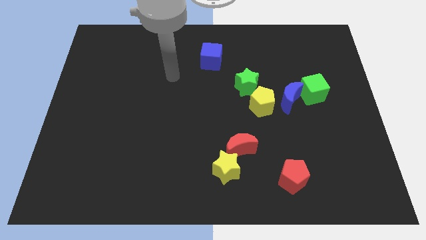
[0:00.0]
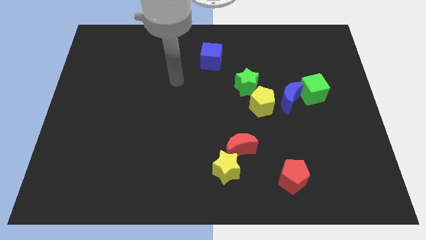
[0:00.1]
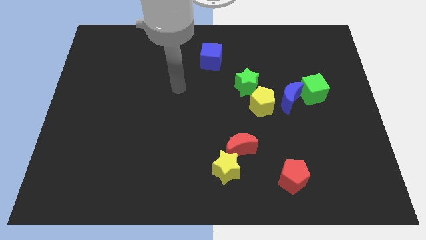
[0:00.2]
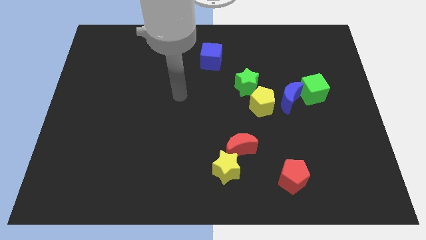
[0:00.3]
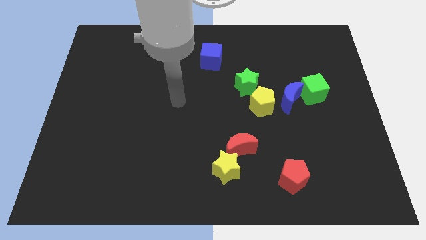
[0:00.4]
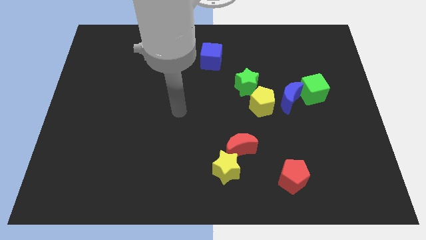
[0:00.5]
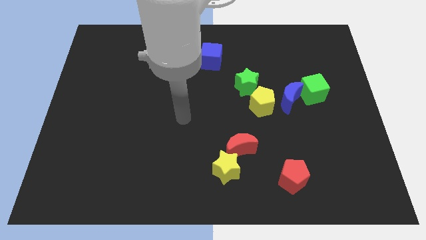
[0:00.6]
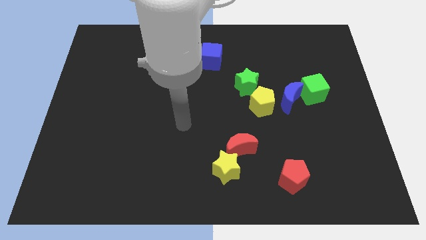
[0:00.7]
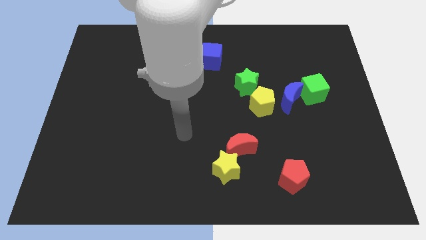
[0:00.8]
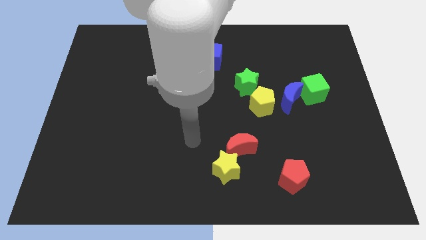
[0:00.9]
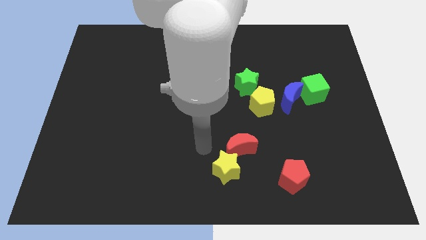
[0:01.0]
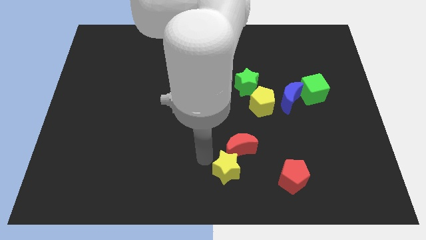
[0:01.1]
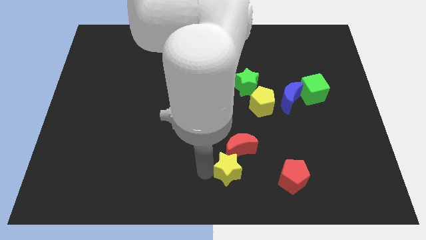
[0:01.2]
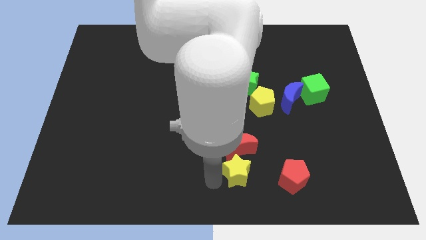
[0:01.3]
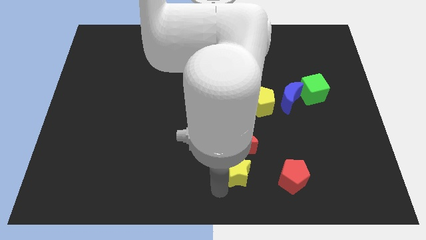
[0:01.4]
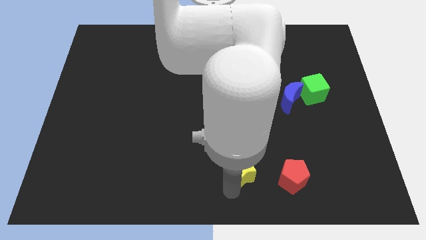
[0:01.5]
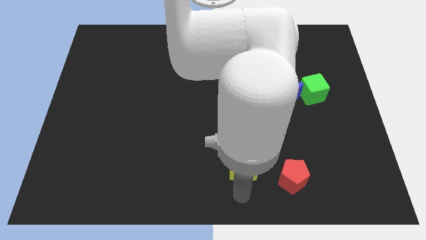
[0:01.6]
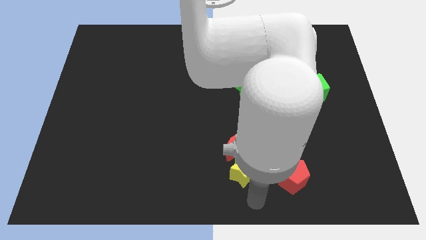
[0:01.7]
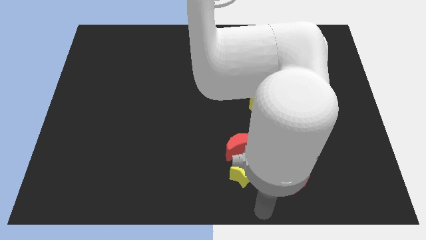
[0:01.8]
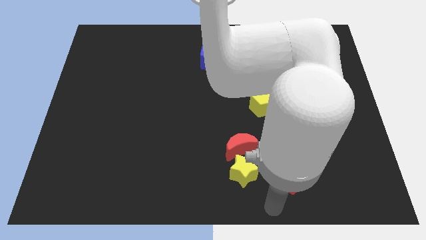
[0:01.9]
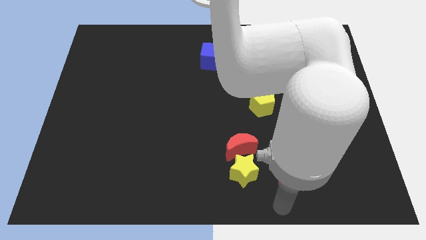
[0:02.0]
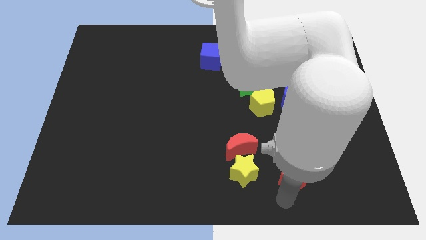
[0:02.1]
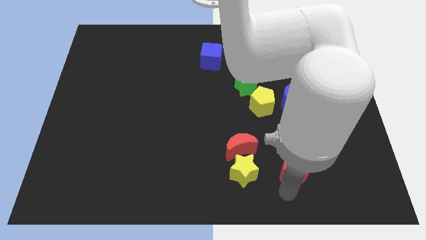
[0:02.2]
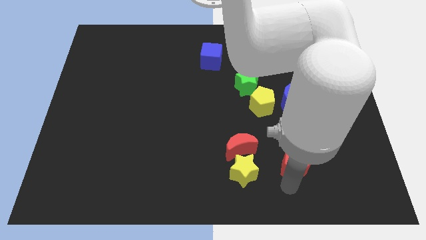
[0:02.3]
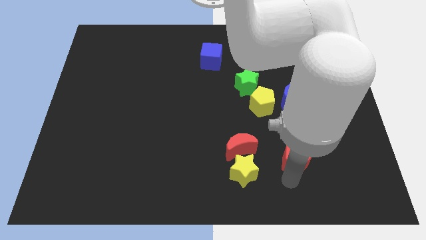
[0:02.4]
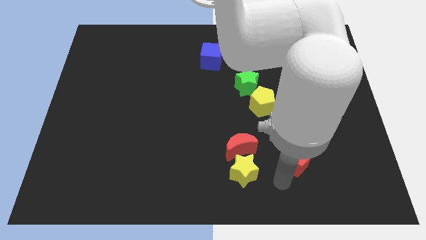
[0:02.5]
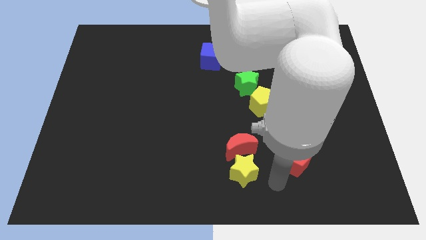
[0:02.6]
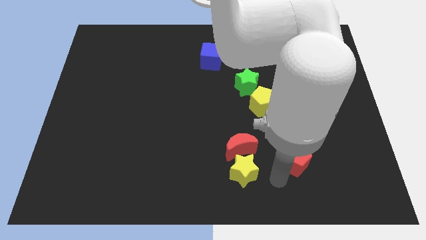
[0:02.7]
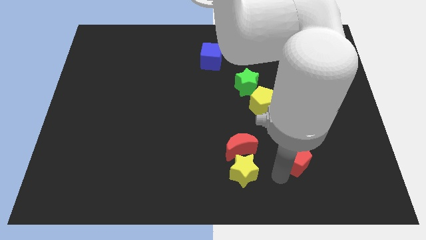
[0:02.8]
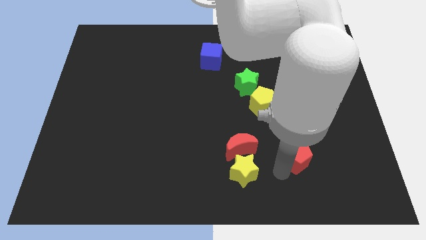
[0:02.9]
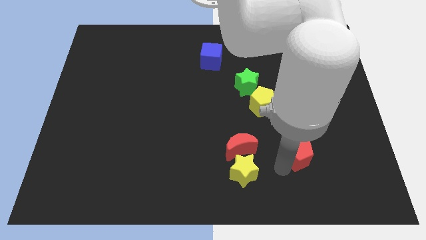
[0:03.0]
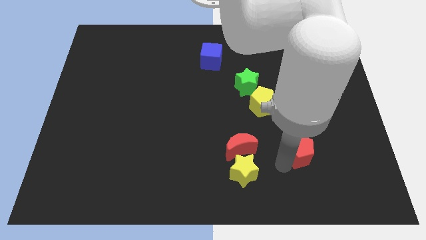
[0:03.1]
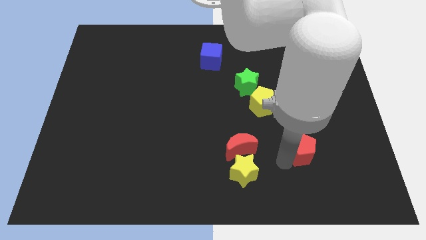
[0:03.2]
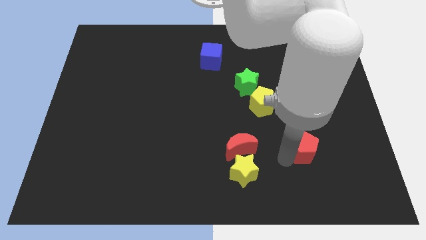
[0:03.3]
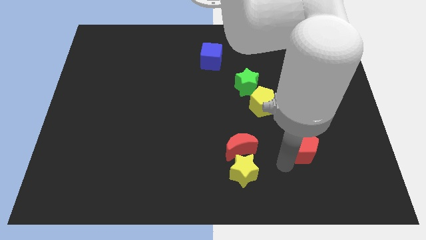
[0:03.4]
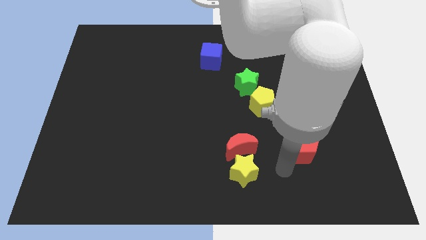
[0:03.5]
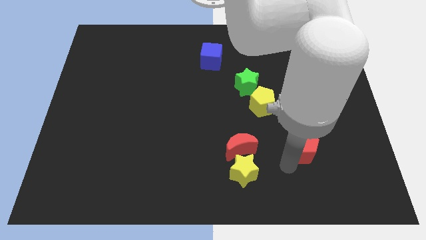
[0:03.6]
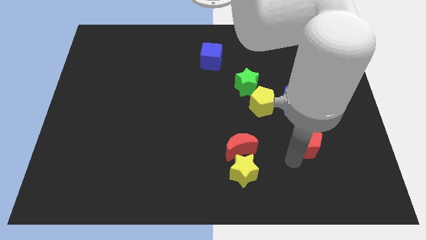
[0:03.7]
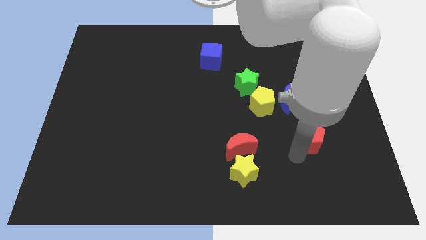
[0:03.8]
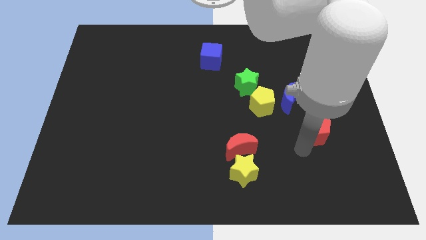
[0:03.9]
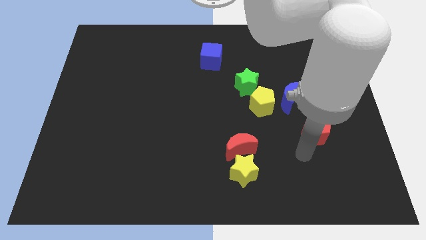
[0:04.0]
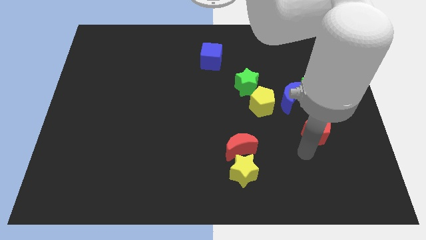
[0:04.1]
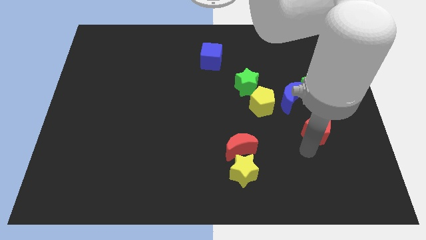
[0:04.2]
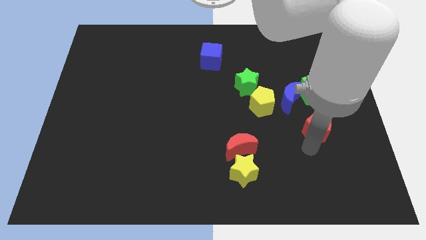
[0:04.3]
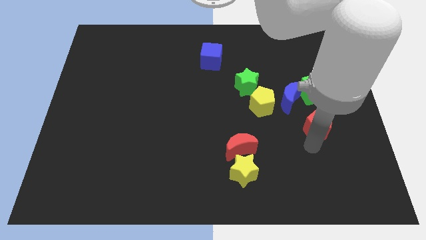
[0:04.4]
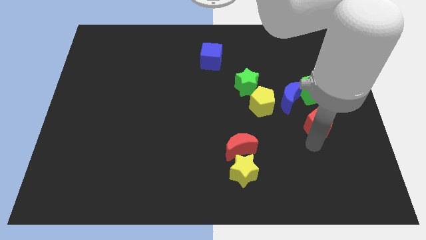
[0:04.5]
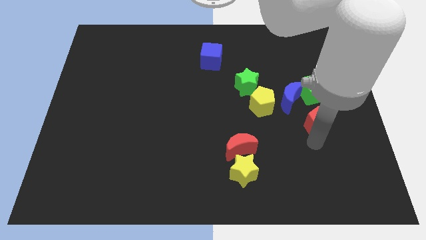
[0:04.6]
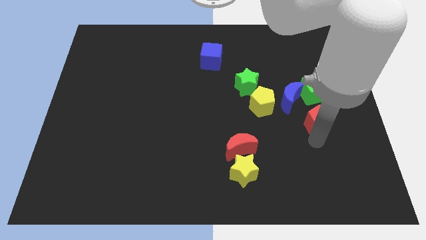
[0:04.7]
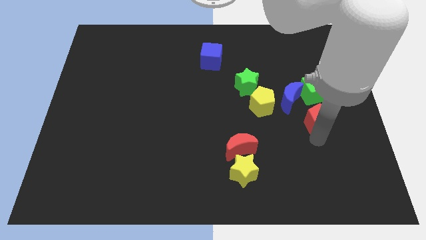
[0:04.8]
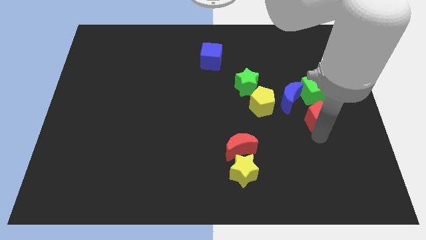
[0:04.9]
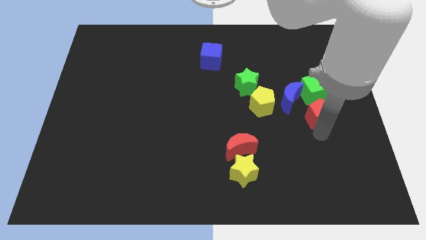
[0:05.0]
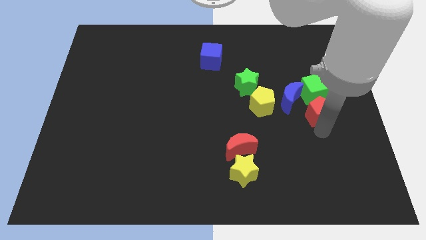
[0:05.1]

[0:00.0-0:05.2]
slide the red pentagon to the right side of the blue moon

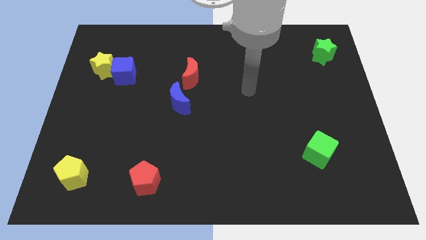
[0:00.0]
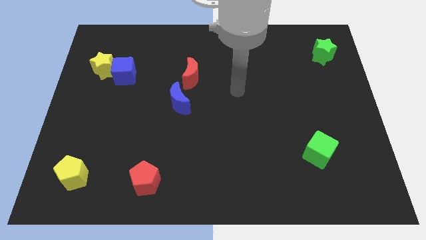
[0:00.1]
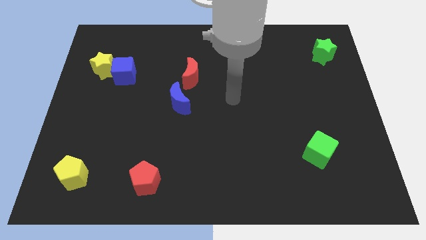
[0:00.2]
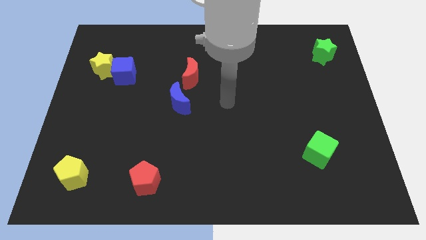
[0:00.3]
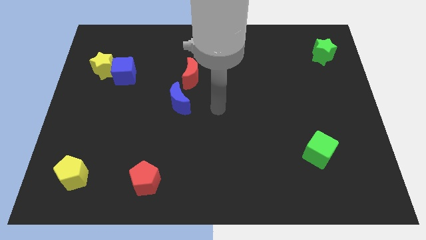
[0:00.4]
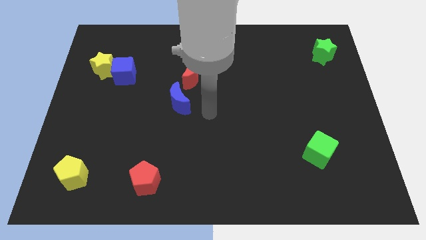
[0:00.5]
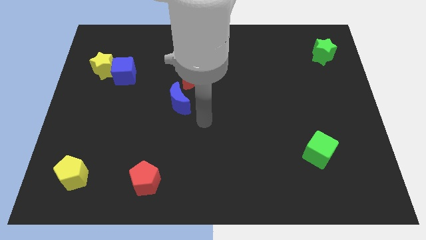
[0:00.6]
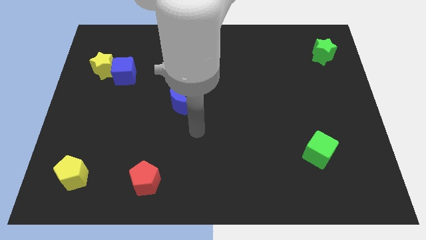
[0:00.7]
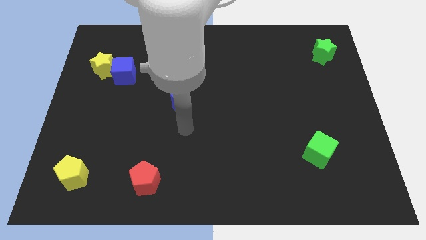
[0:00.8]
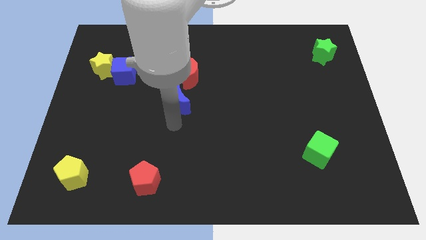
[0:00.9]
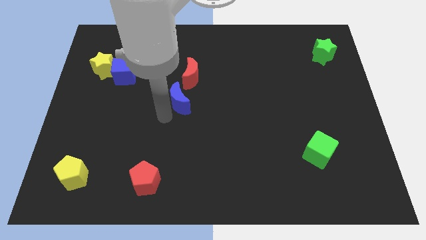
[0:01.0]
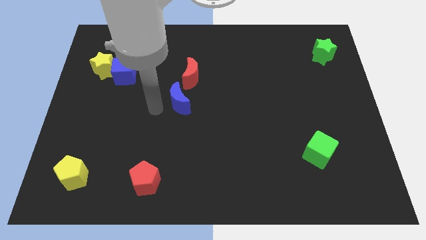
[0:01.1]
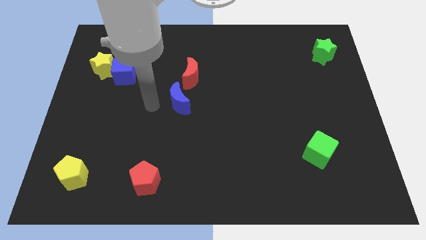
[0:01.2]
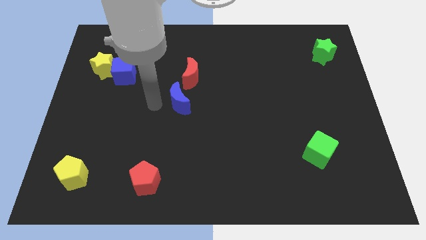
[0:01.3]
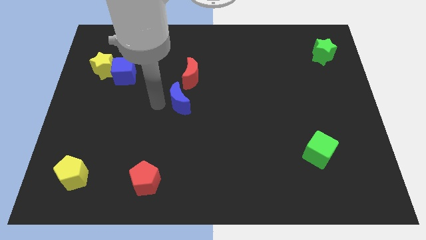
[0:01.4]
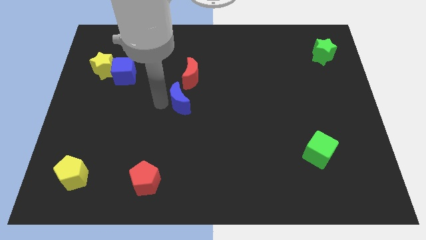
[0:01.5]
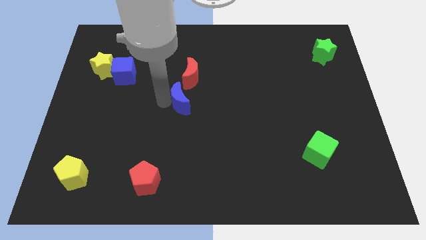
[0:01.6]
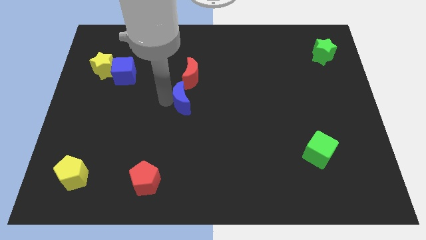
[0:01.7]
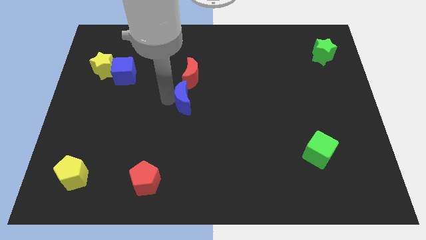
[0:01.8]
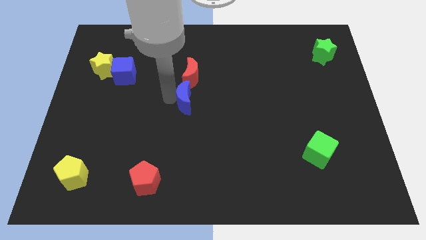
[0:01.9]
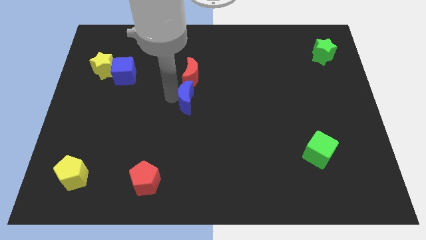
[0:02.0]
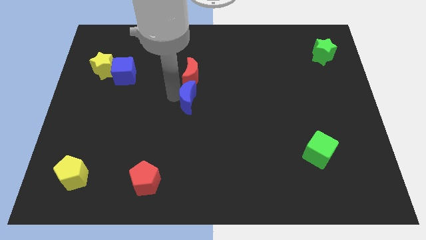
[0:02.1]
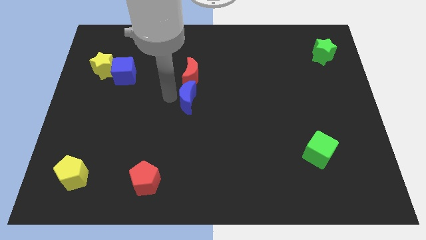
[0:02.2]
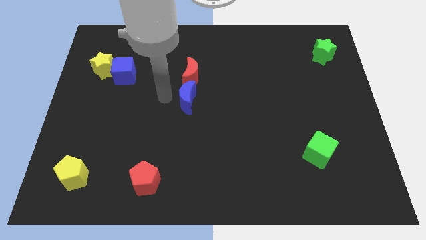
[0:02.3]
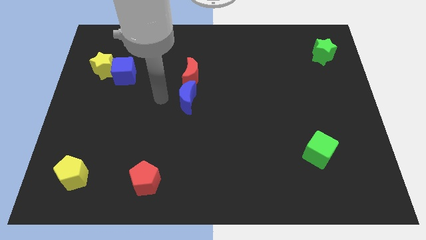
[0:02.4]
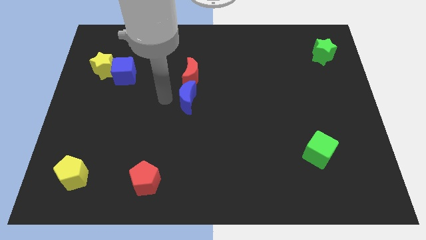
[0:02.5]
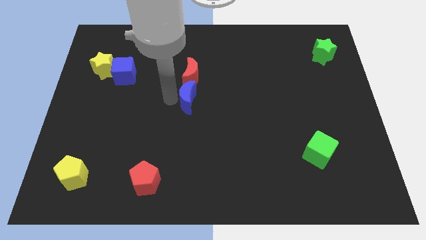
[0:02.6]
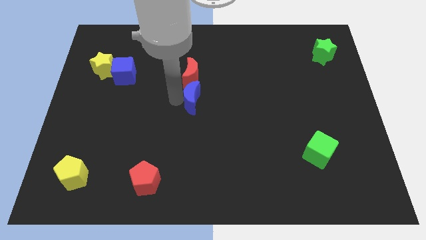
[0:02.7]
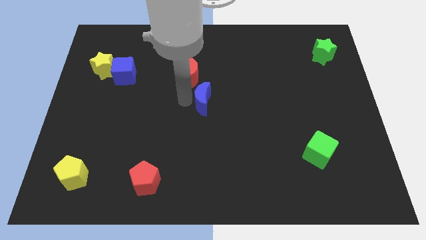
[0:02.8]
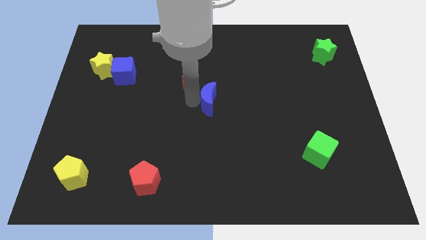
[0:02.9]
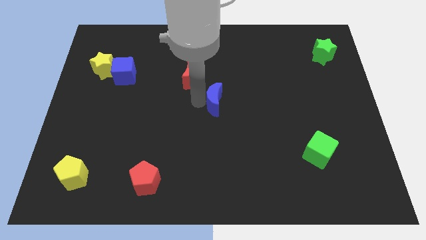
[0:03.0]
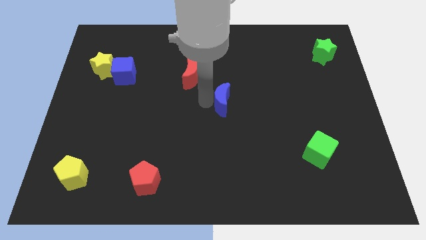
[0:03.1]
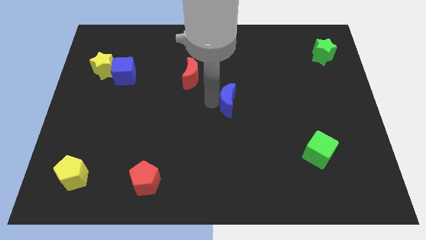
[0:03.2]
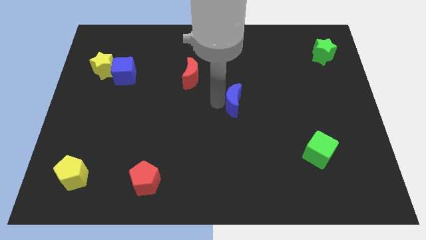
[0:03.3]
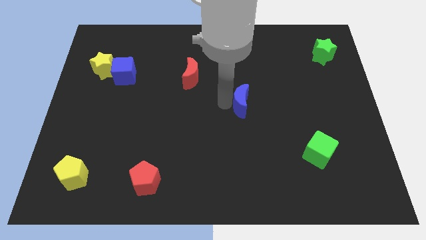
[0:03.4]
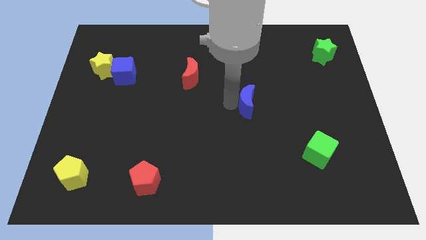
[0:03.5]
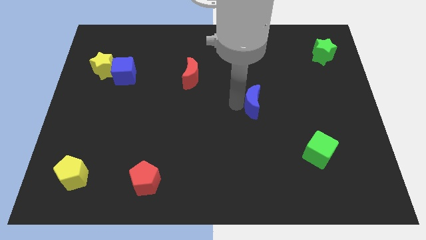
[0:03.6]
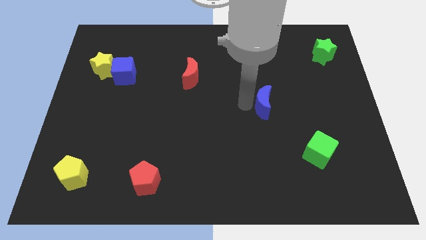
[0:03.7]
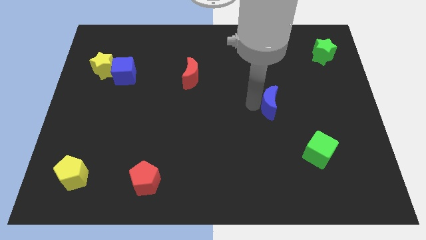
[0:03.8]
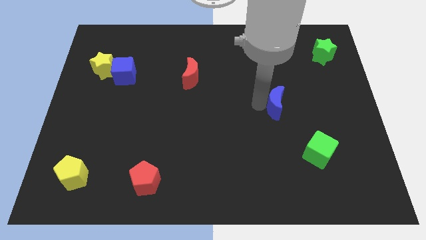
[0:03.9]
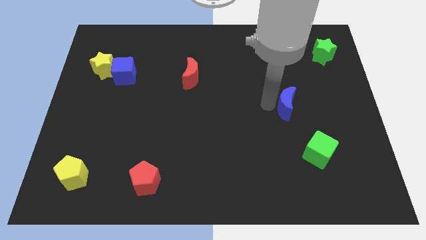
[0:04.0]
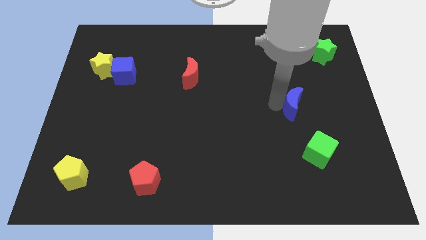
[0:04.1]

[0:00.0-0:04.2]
put the blue moon above the green cube
